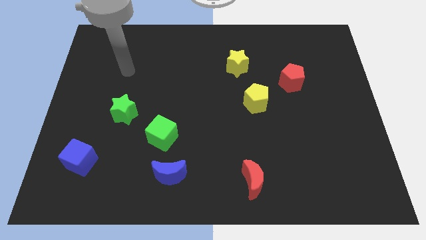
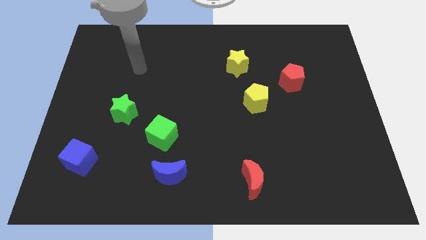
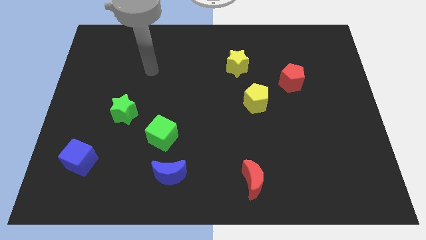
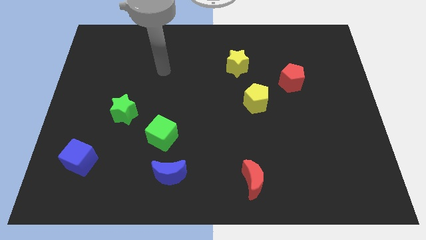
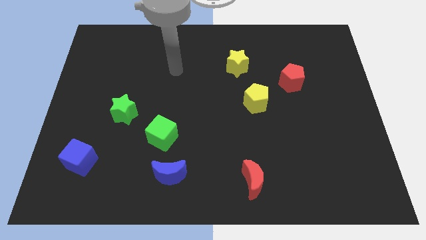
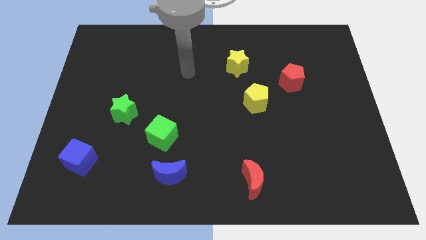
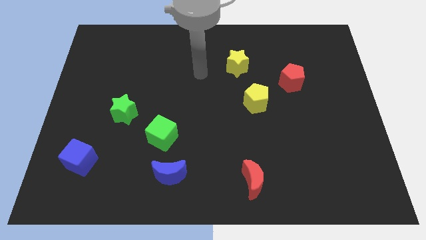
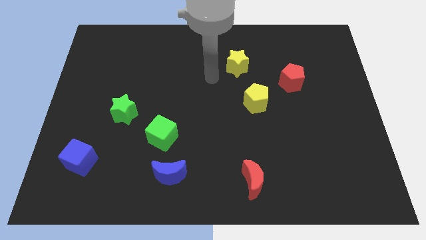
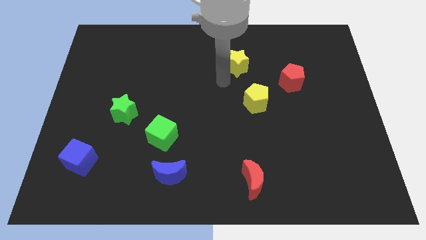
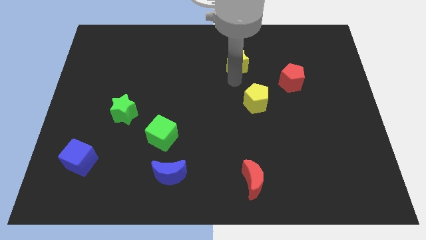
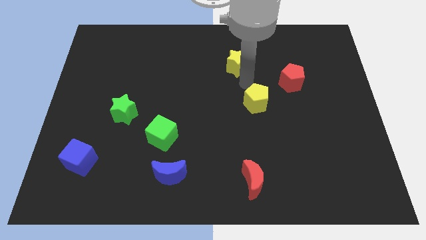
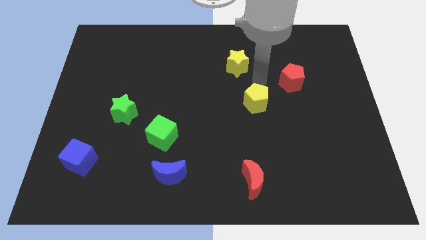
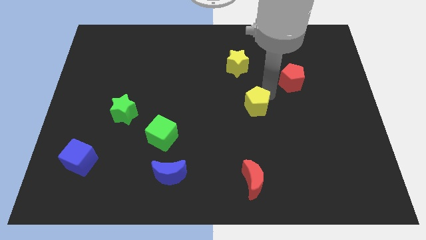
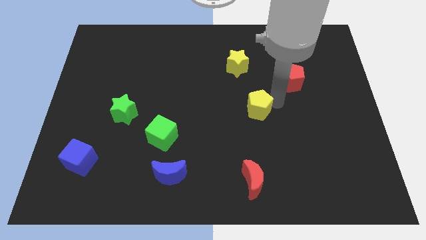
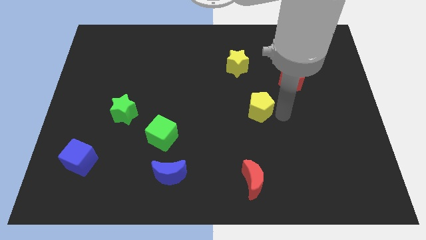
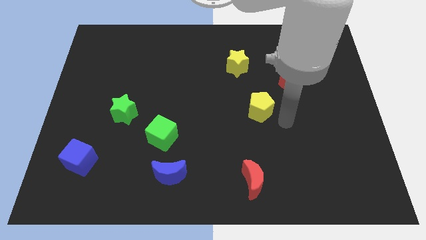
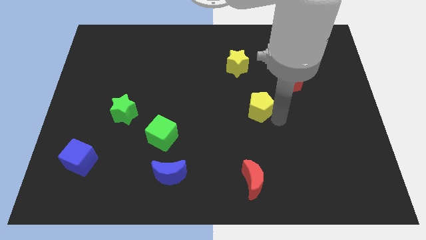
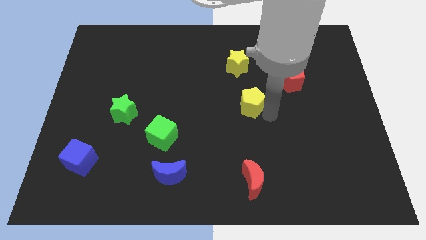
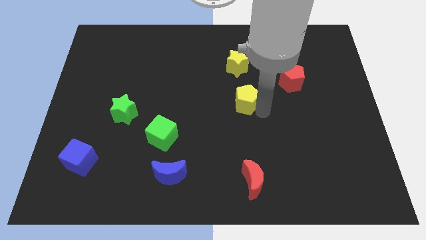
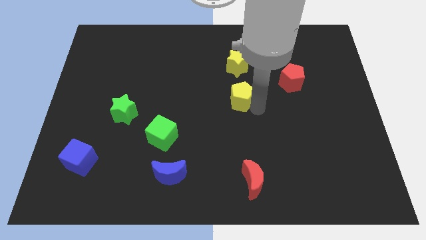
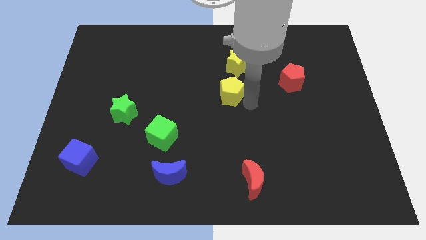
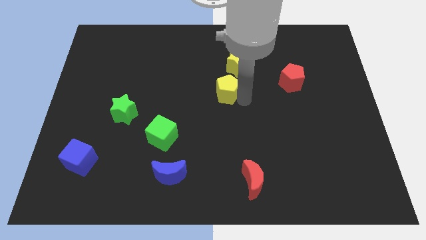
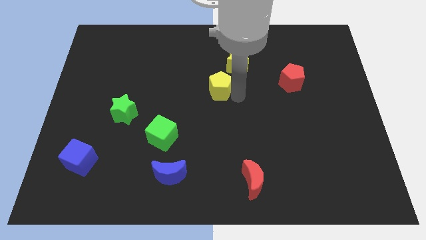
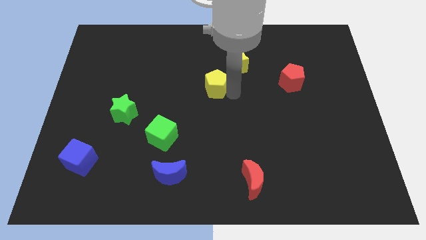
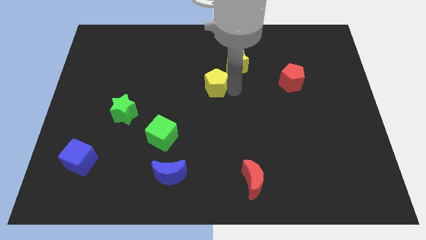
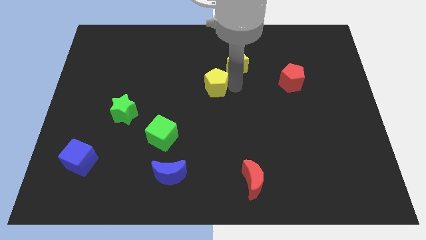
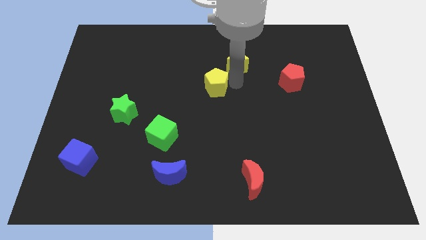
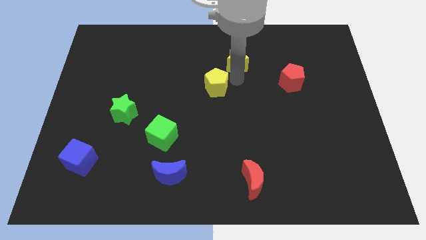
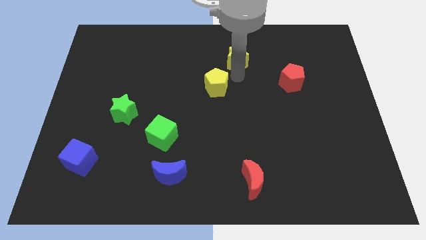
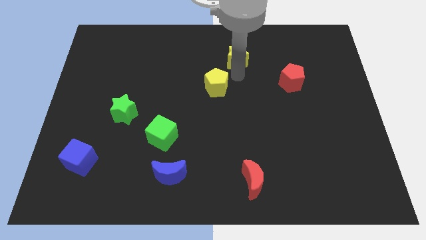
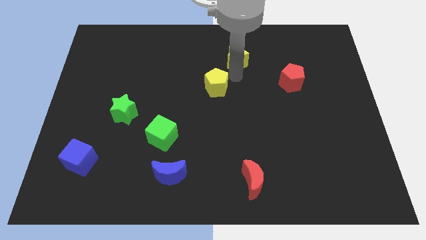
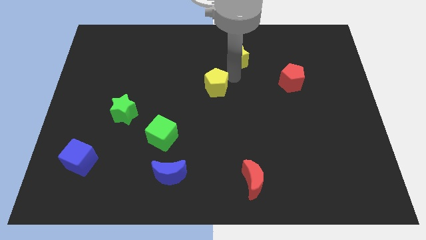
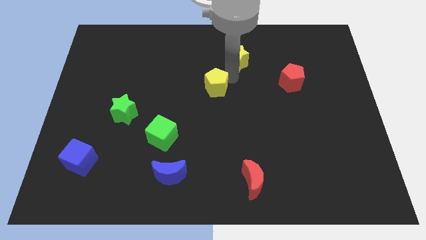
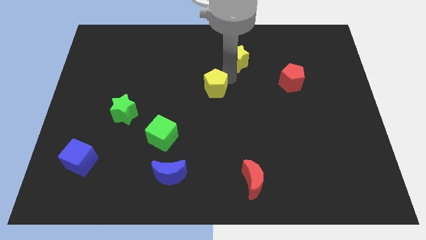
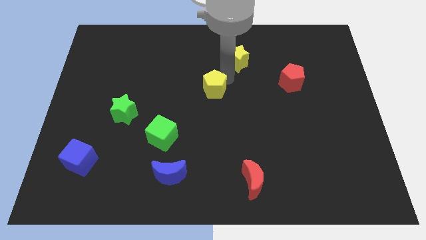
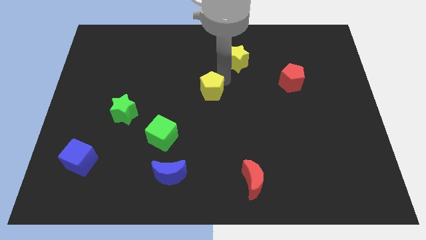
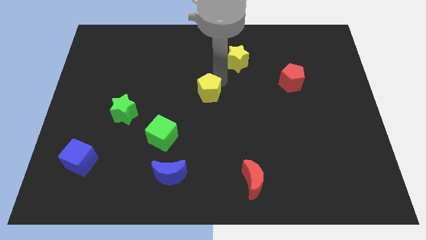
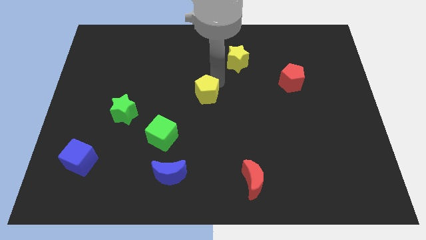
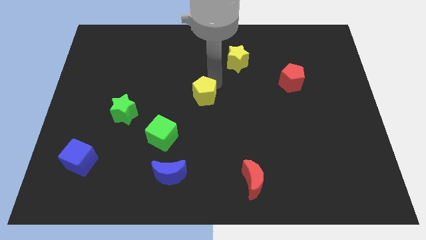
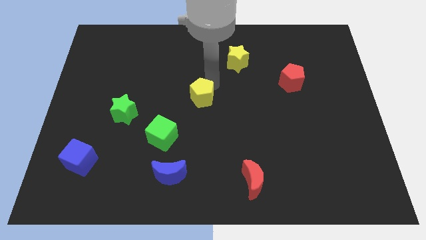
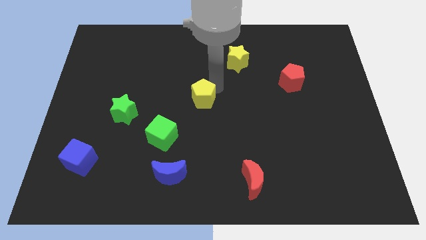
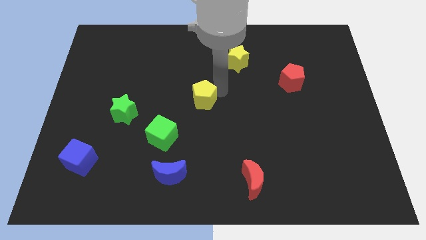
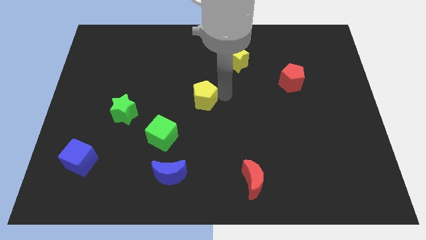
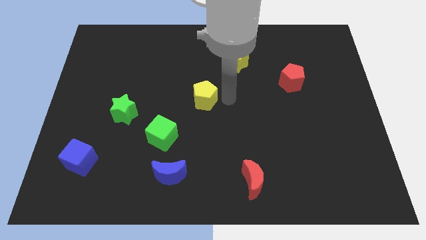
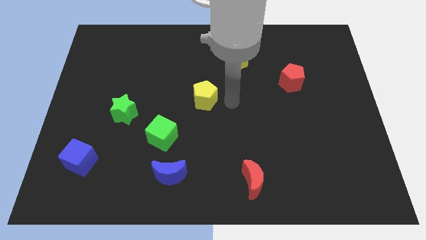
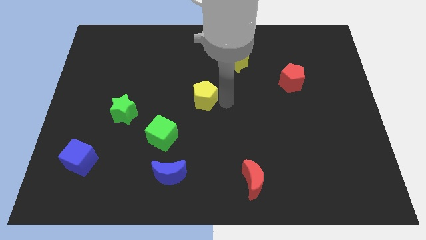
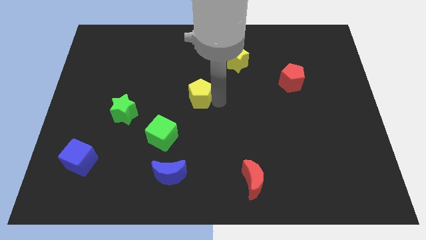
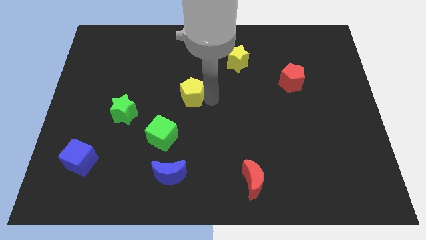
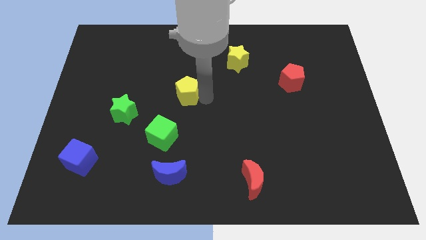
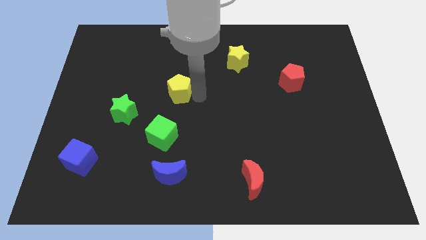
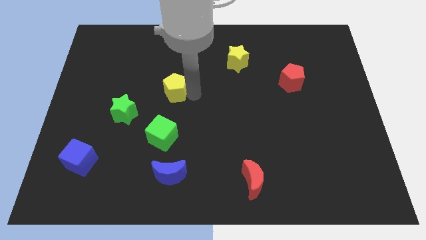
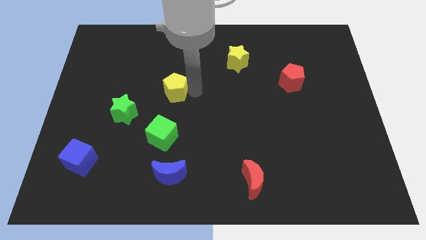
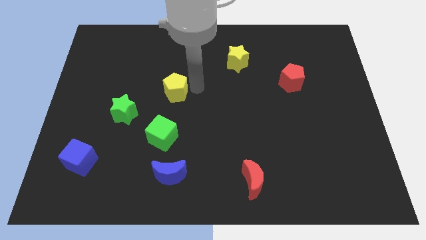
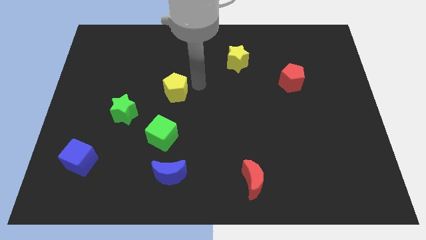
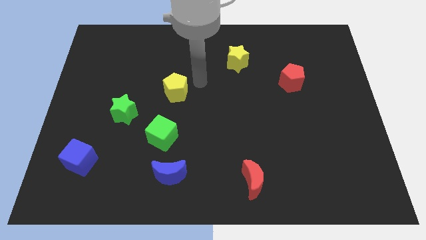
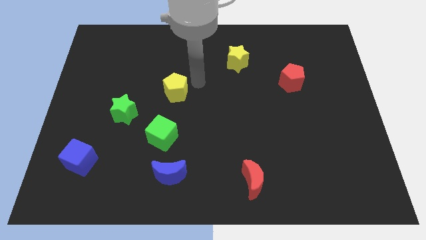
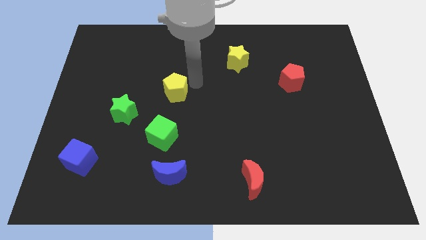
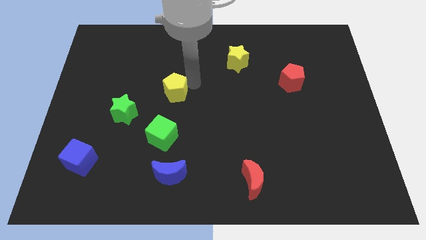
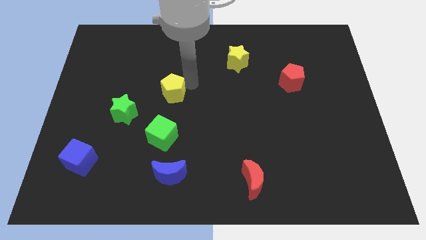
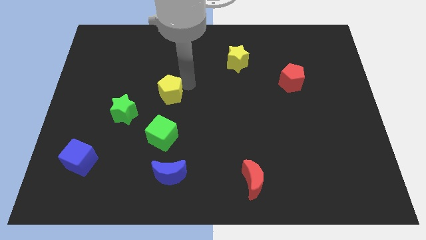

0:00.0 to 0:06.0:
slide the yellow pentagon to the top right of the green star

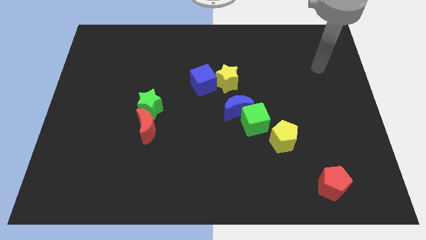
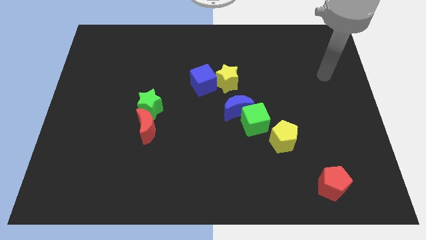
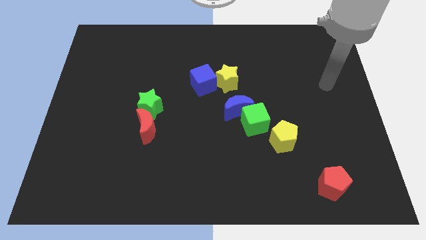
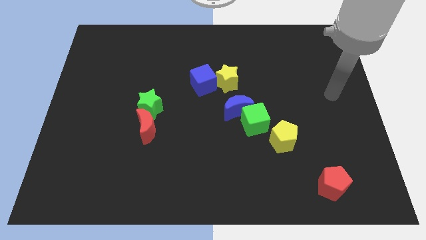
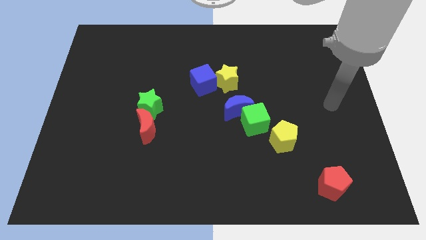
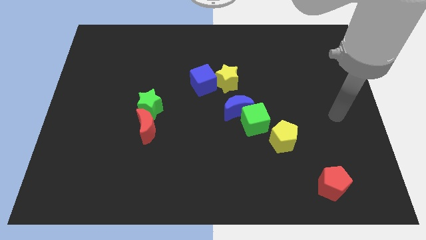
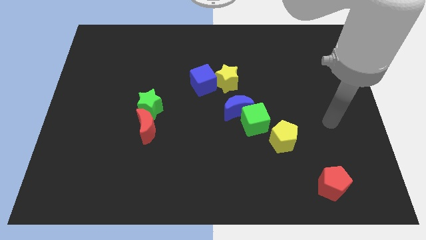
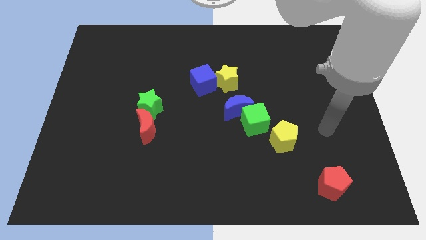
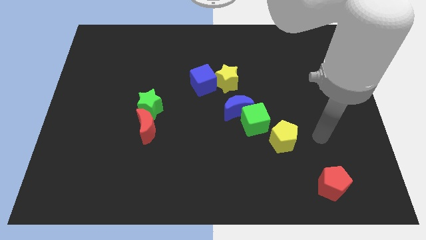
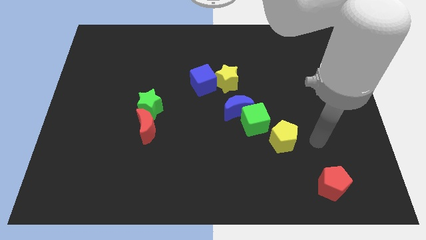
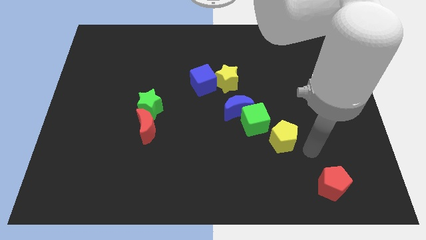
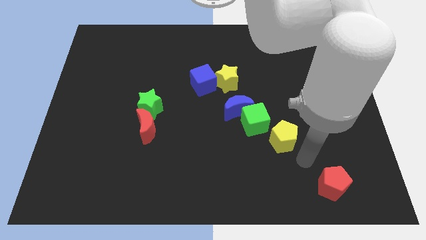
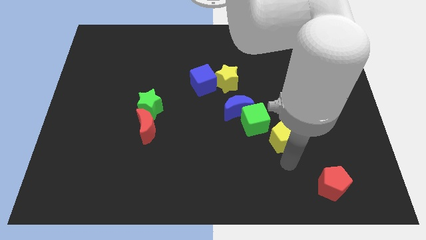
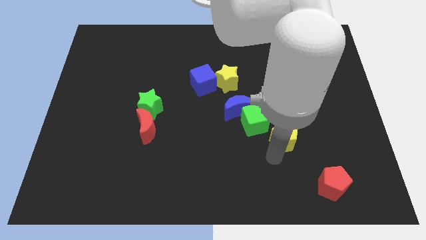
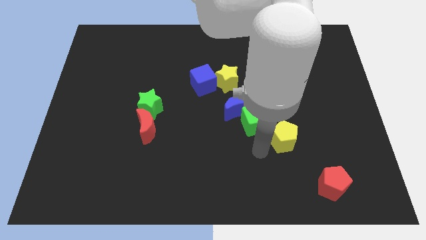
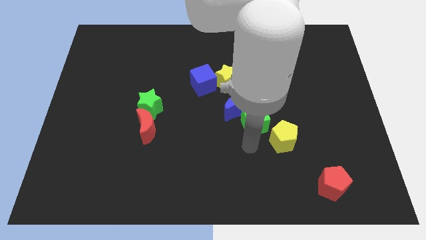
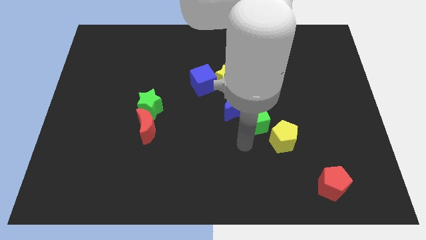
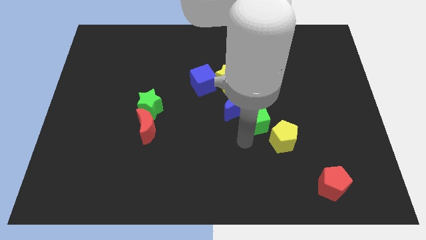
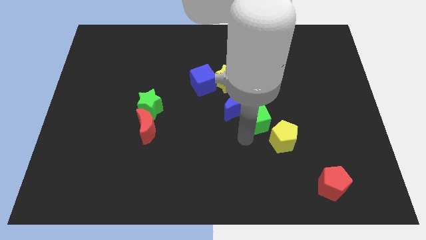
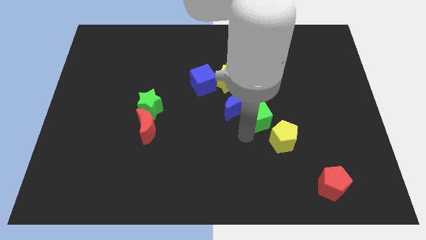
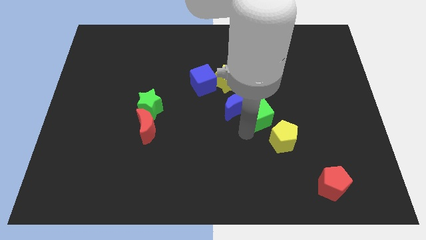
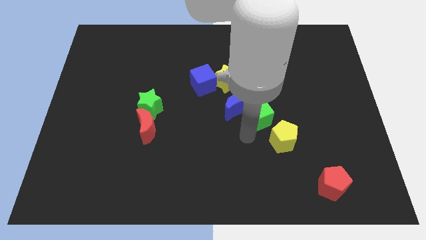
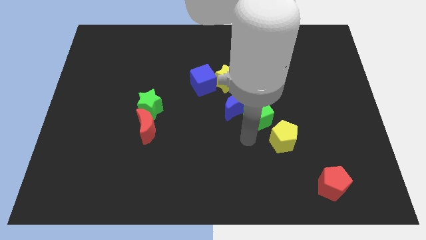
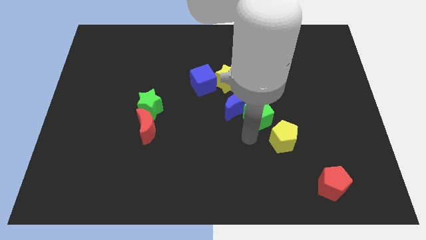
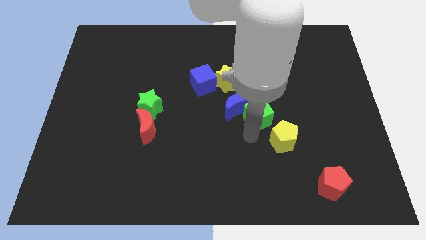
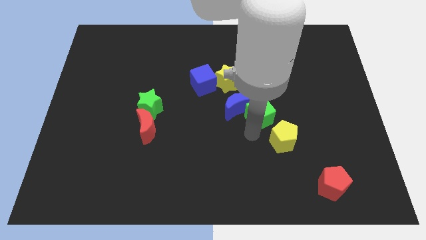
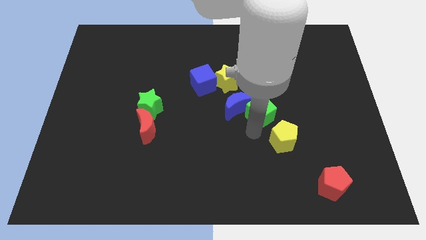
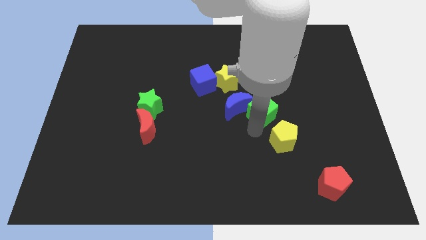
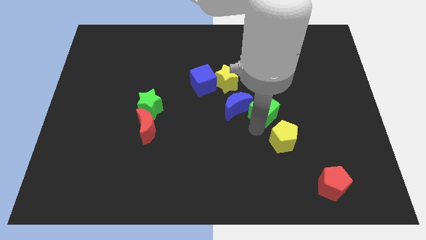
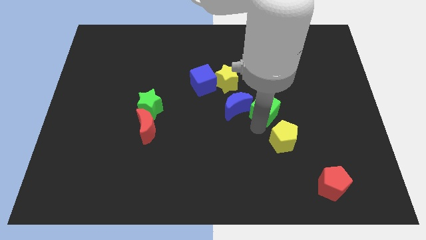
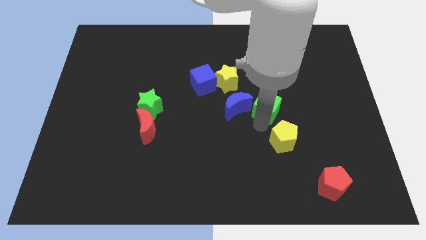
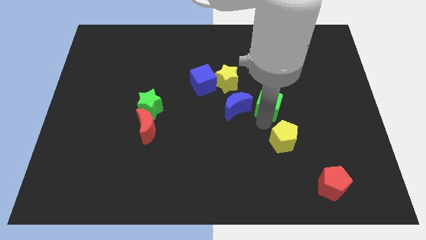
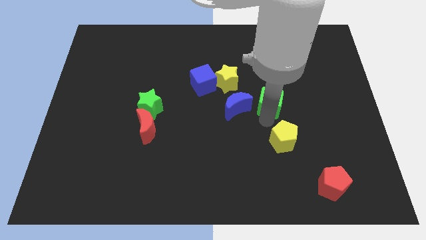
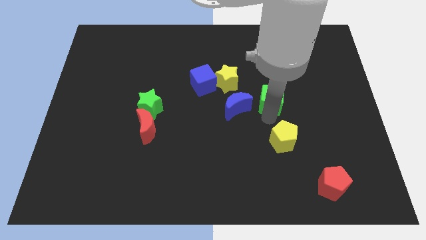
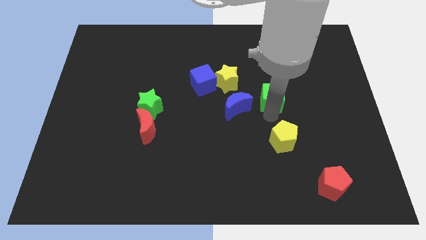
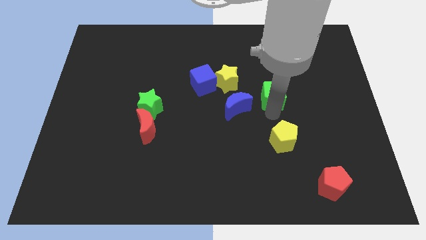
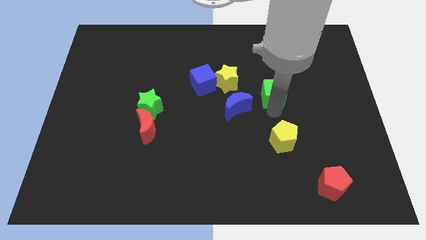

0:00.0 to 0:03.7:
push the green cube to the right side of the yellow star
